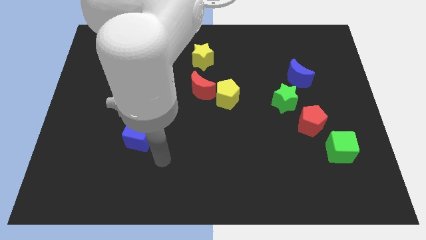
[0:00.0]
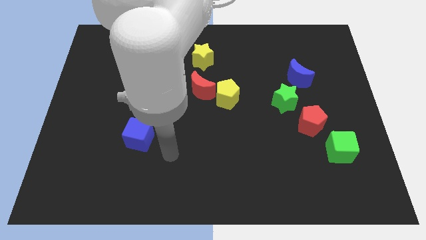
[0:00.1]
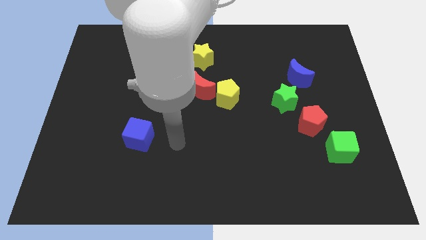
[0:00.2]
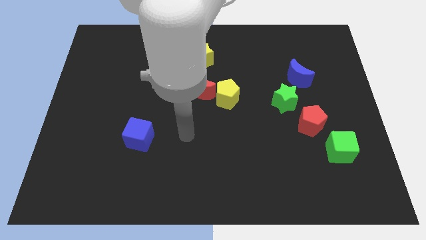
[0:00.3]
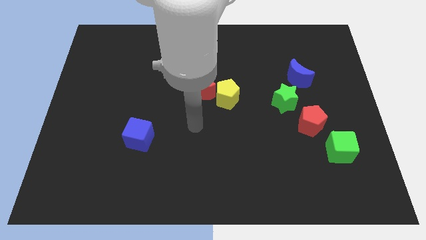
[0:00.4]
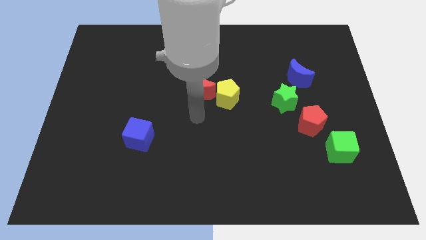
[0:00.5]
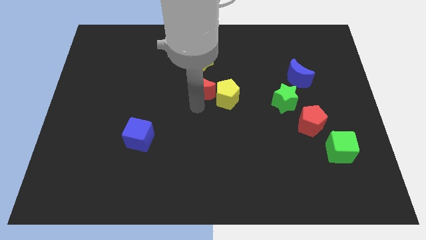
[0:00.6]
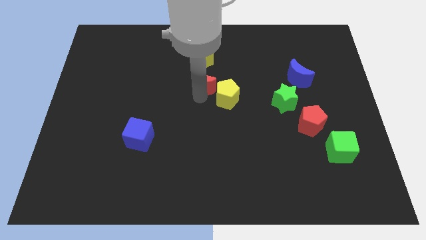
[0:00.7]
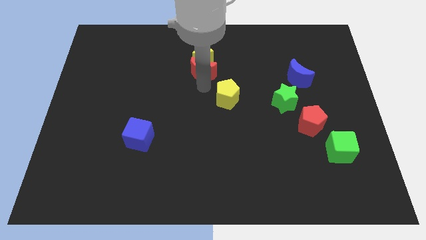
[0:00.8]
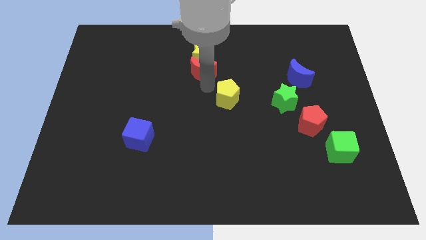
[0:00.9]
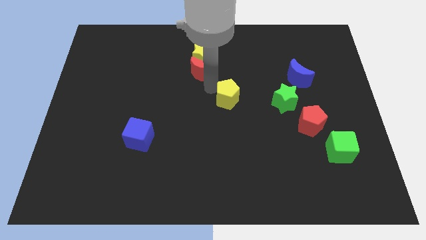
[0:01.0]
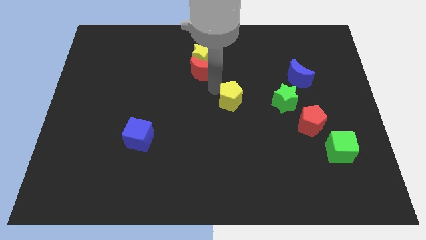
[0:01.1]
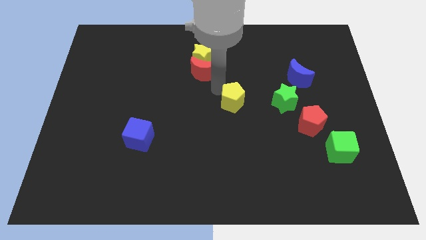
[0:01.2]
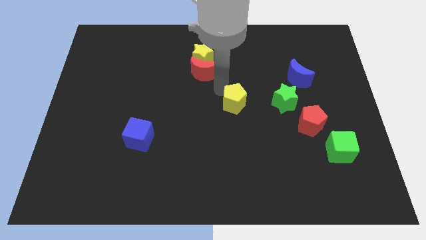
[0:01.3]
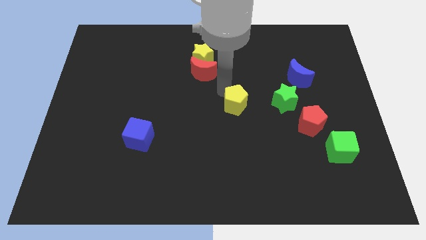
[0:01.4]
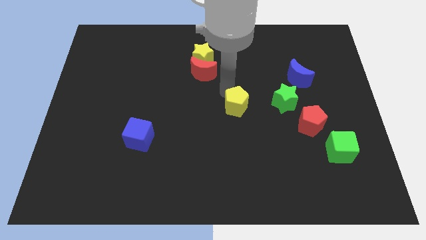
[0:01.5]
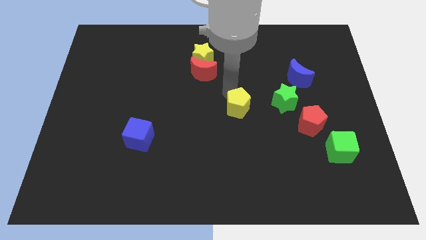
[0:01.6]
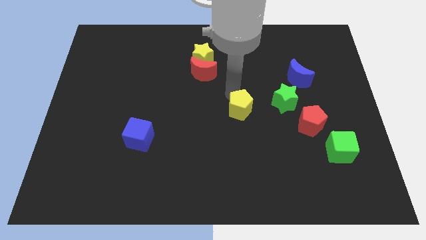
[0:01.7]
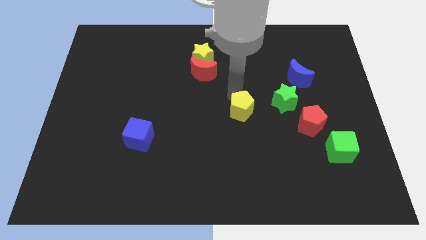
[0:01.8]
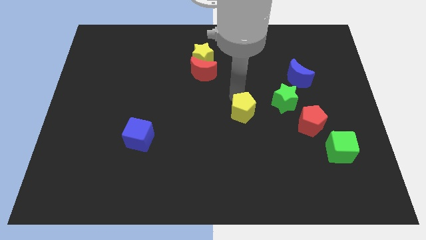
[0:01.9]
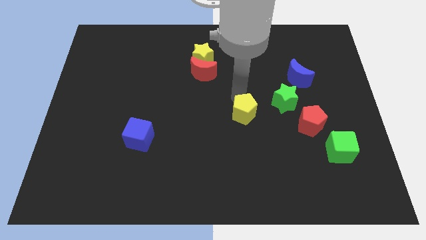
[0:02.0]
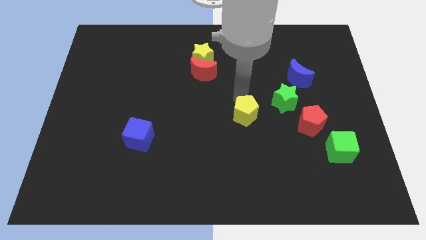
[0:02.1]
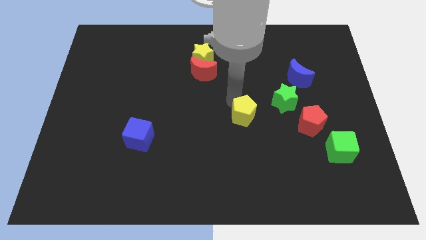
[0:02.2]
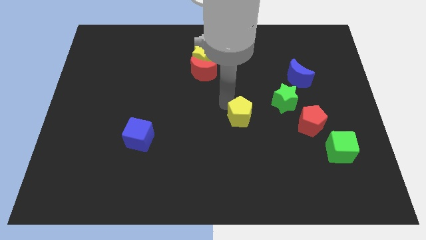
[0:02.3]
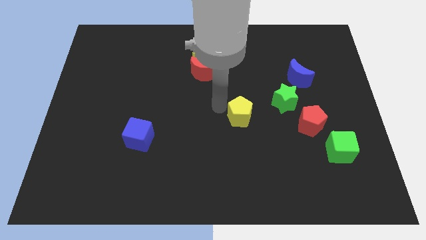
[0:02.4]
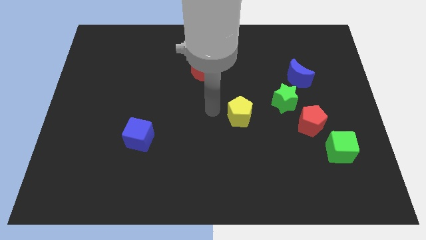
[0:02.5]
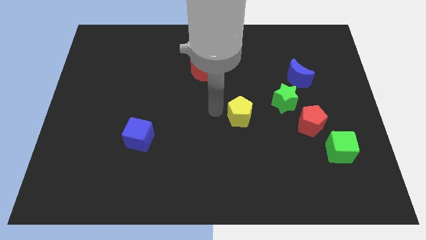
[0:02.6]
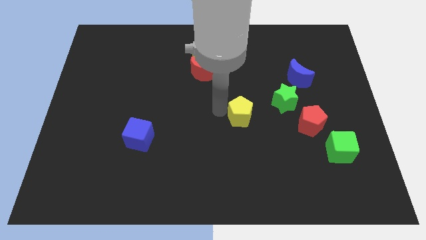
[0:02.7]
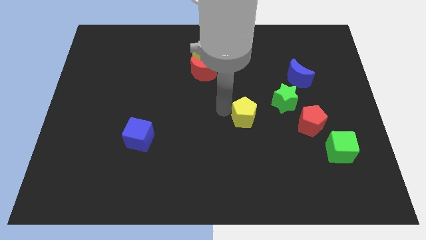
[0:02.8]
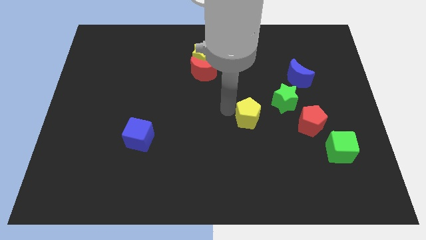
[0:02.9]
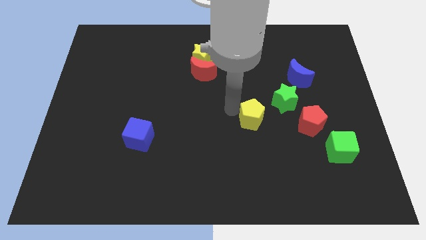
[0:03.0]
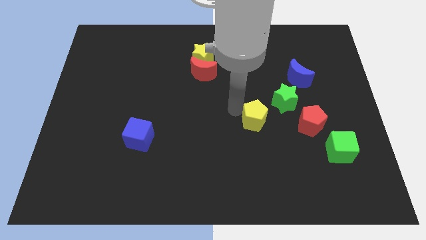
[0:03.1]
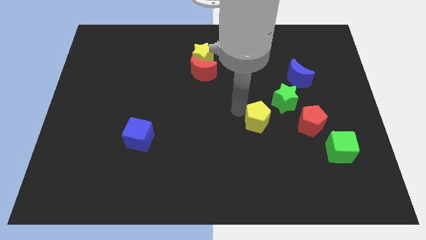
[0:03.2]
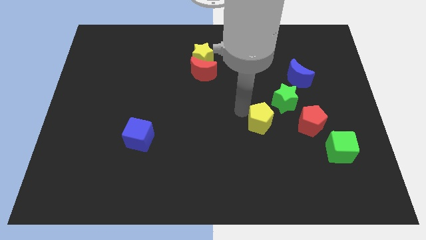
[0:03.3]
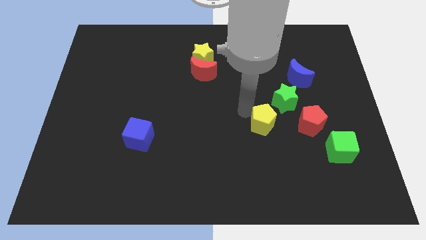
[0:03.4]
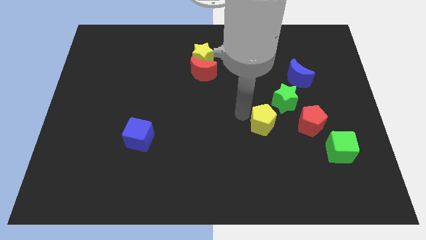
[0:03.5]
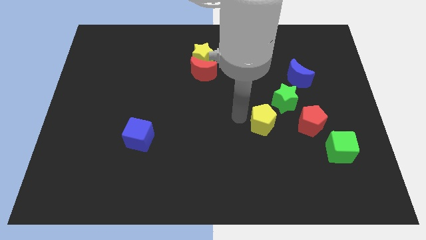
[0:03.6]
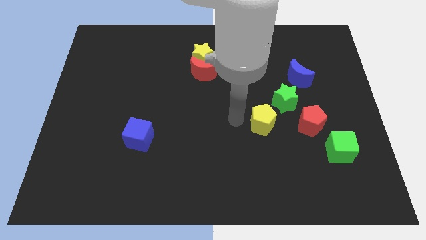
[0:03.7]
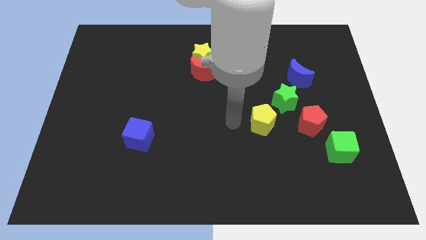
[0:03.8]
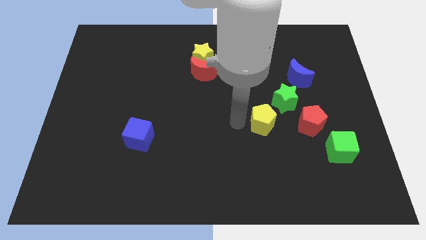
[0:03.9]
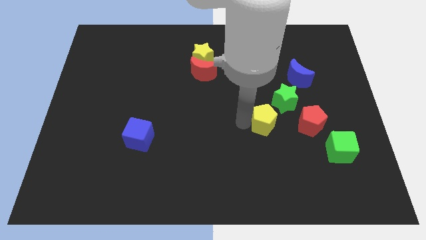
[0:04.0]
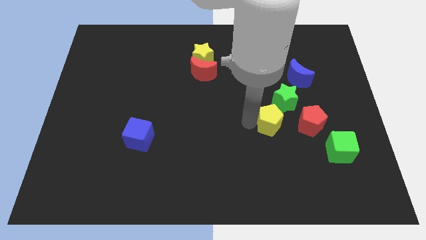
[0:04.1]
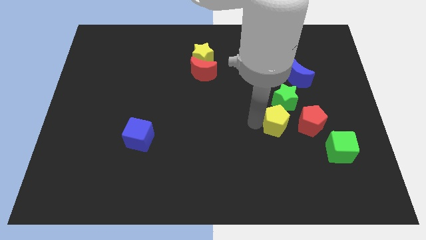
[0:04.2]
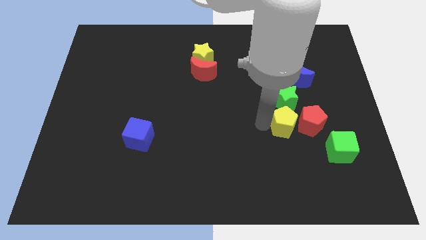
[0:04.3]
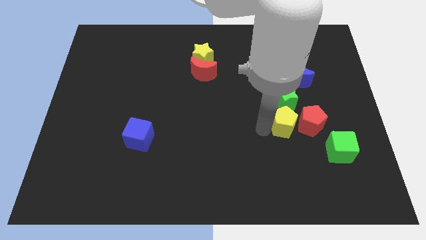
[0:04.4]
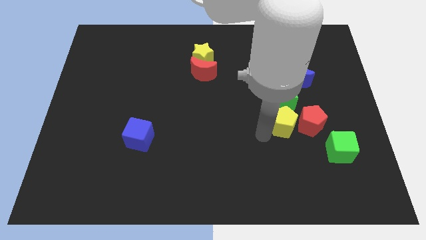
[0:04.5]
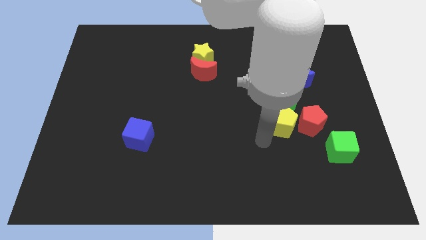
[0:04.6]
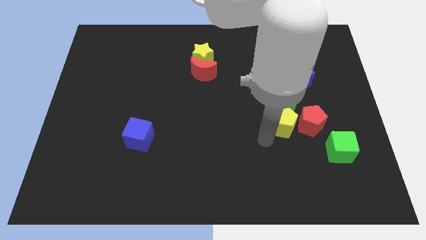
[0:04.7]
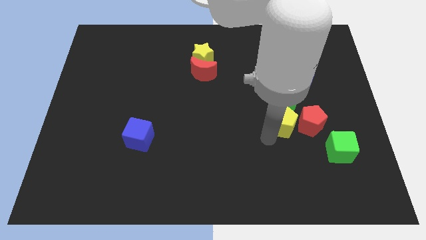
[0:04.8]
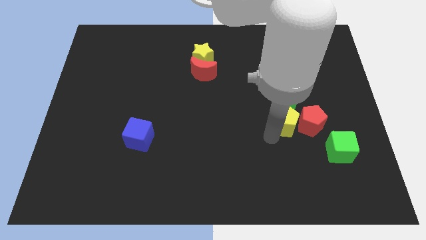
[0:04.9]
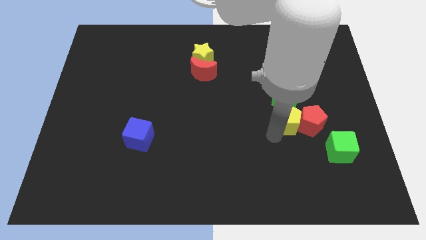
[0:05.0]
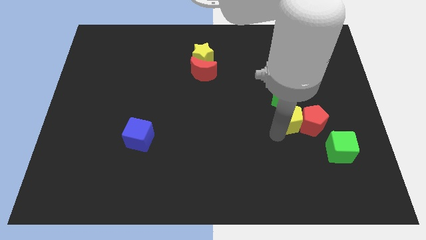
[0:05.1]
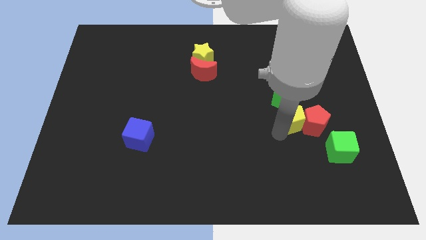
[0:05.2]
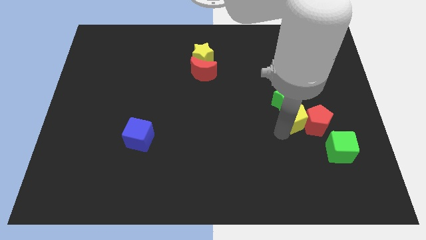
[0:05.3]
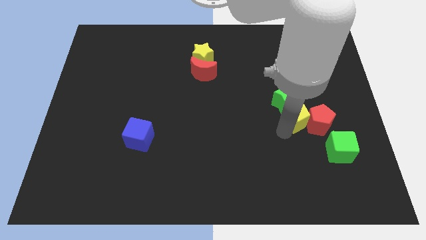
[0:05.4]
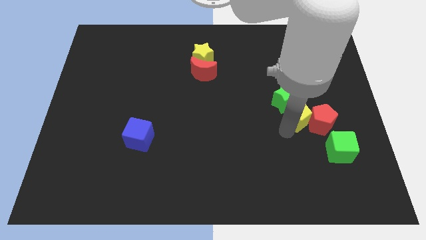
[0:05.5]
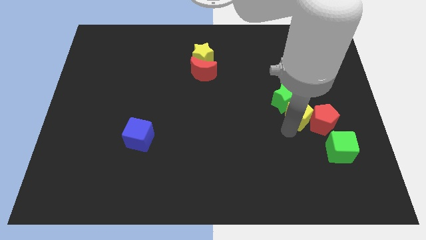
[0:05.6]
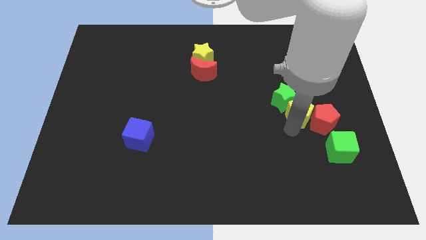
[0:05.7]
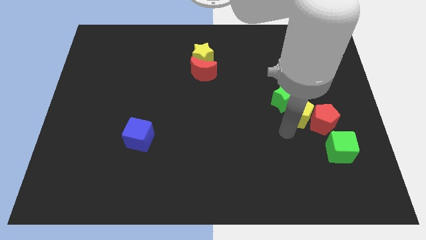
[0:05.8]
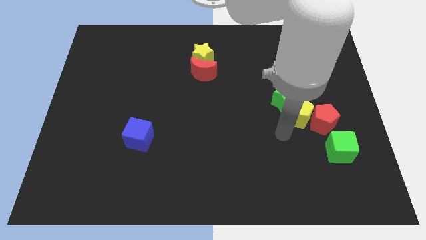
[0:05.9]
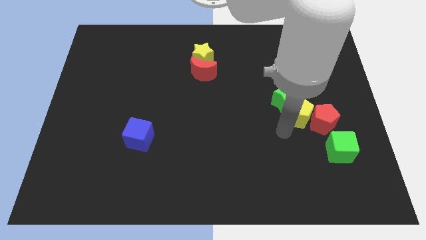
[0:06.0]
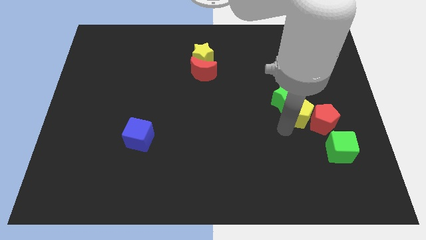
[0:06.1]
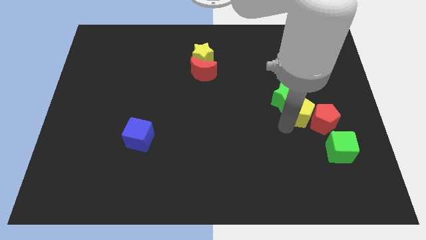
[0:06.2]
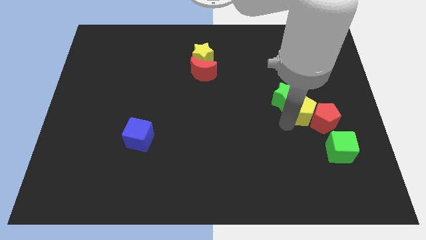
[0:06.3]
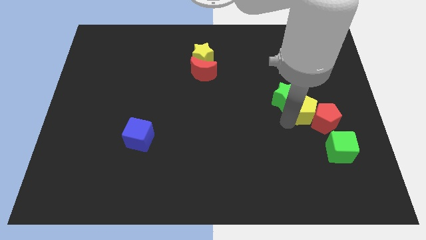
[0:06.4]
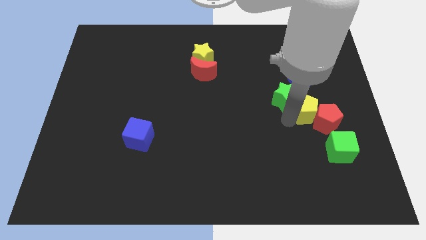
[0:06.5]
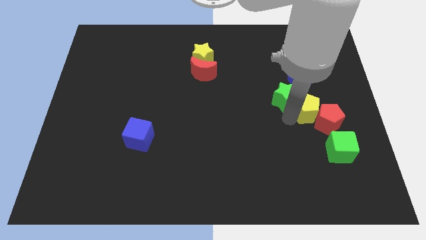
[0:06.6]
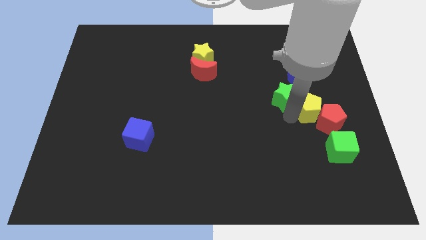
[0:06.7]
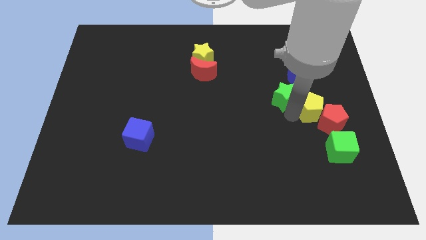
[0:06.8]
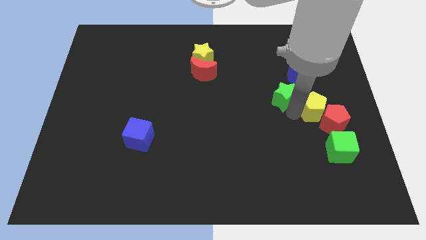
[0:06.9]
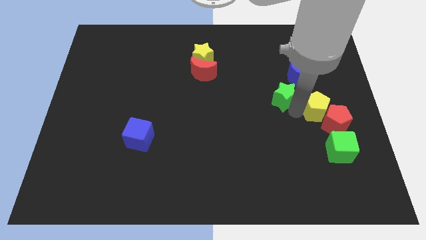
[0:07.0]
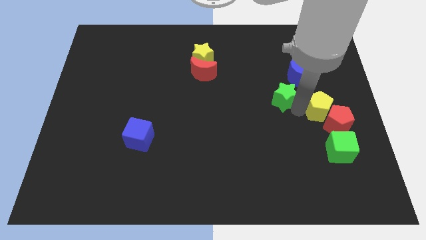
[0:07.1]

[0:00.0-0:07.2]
put the yellow pentagon to the bottom right side of the blue moon
